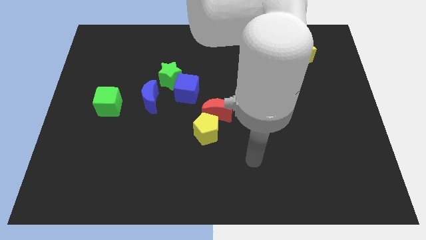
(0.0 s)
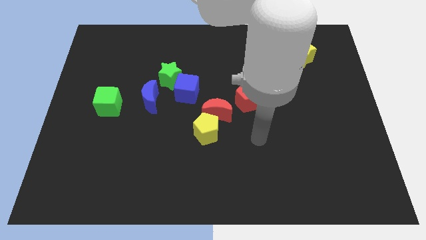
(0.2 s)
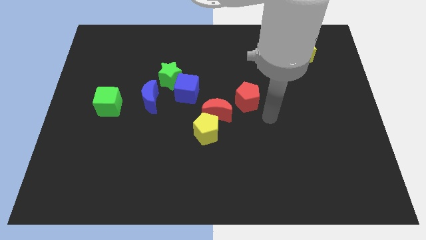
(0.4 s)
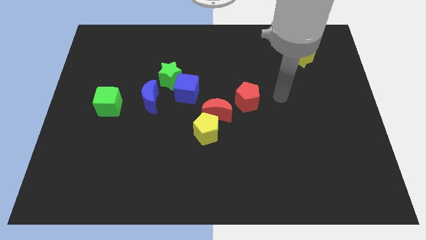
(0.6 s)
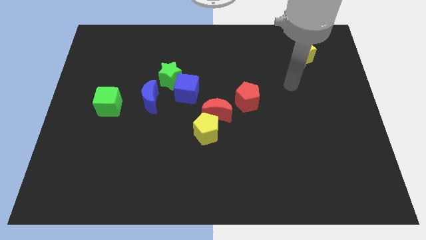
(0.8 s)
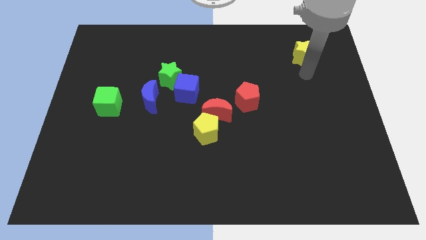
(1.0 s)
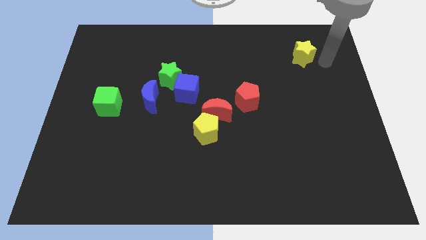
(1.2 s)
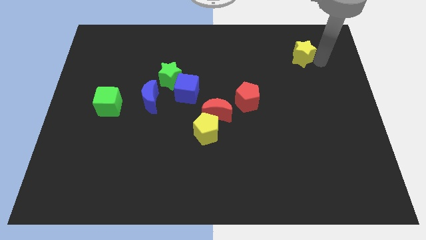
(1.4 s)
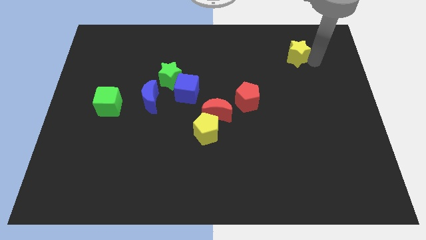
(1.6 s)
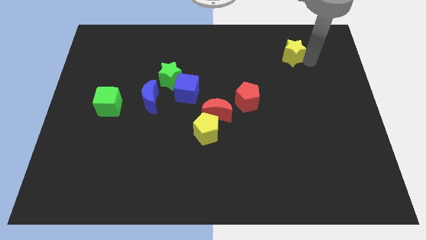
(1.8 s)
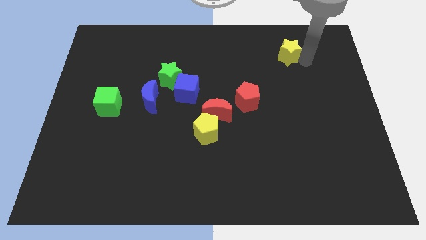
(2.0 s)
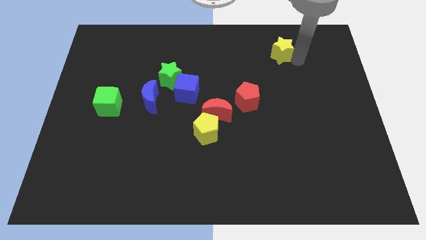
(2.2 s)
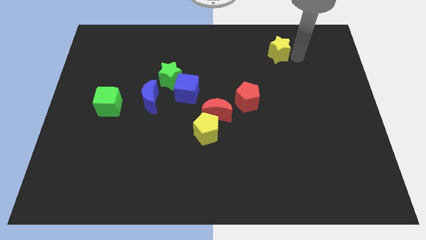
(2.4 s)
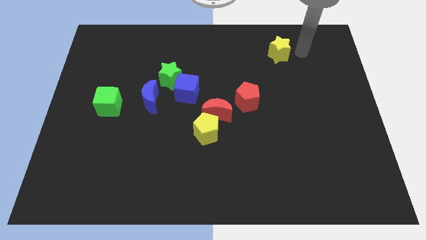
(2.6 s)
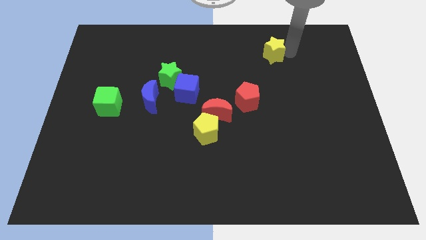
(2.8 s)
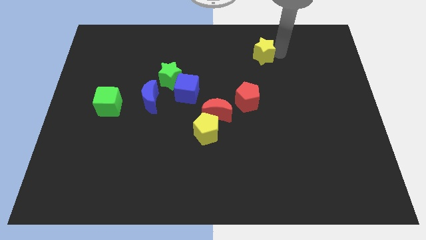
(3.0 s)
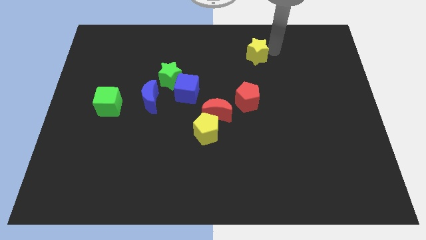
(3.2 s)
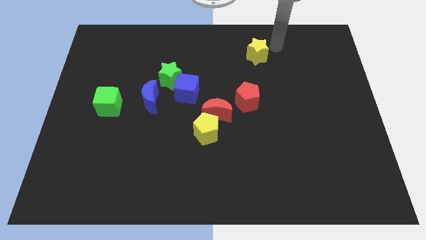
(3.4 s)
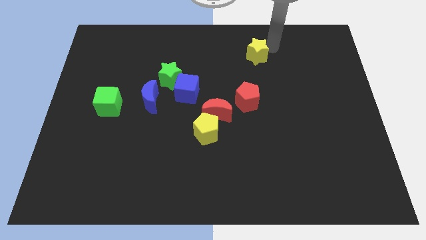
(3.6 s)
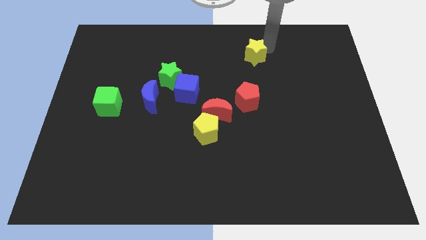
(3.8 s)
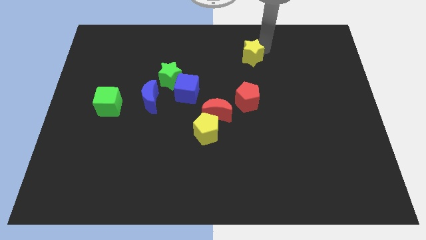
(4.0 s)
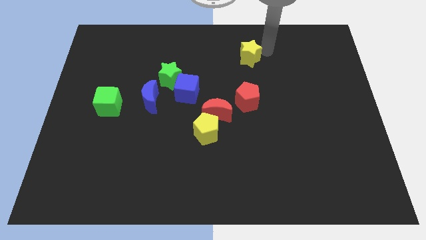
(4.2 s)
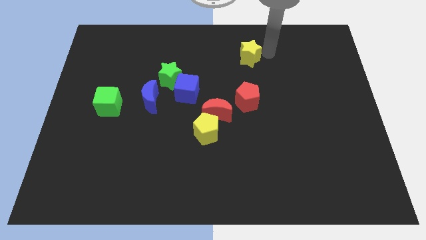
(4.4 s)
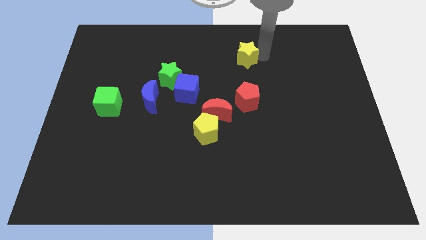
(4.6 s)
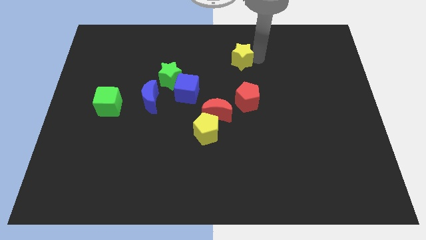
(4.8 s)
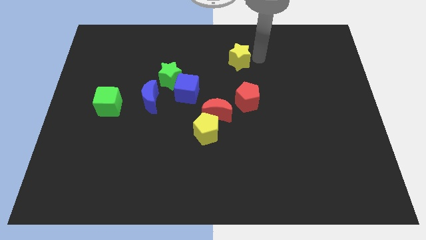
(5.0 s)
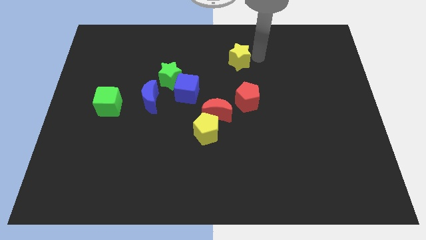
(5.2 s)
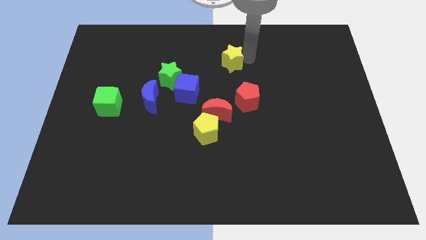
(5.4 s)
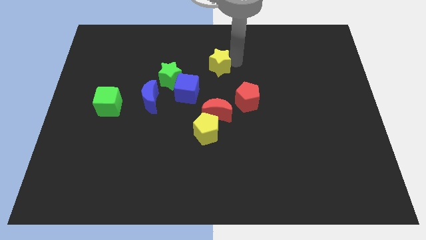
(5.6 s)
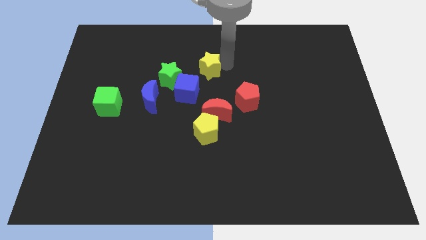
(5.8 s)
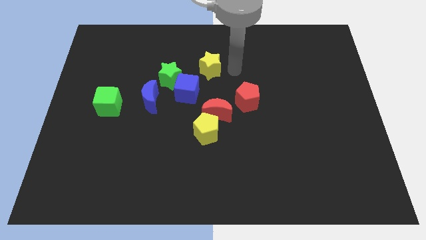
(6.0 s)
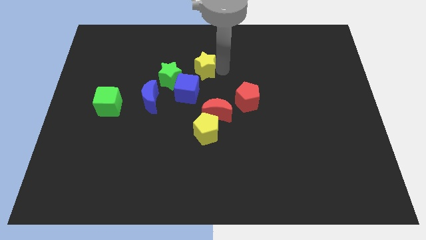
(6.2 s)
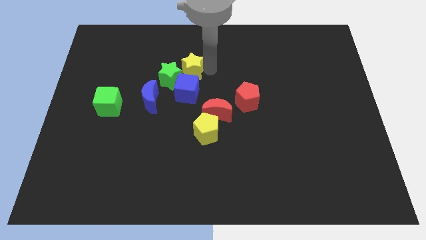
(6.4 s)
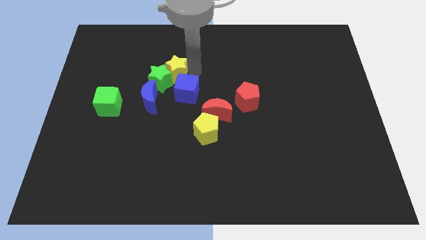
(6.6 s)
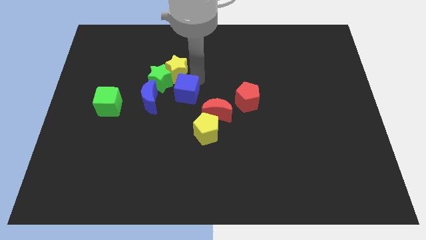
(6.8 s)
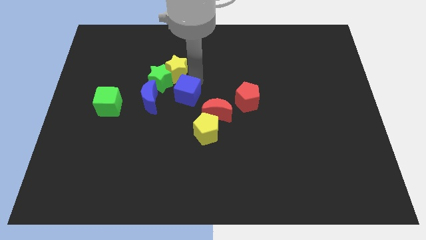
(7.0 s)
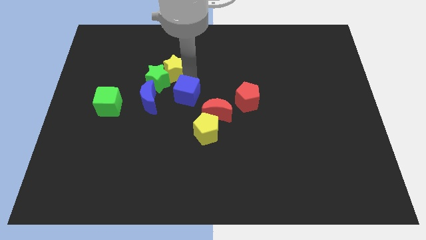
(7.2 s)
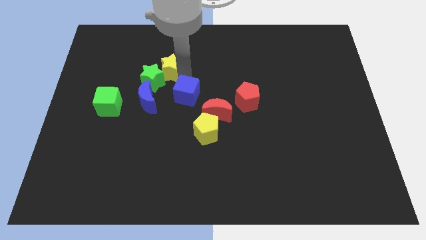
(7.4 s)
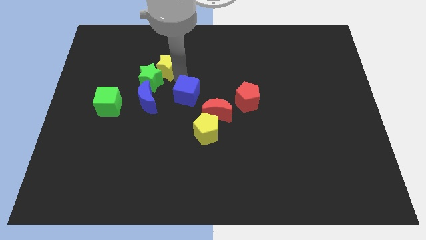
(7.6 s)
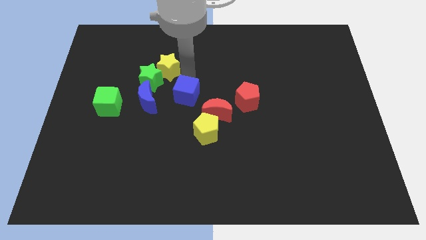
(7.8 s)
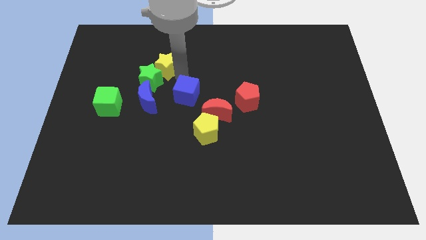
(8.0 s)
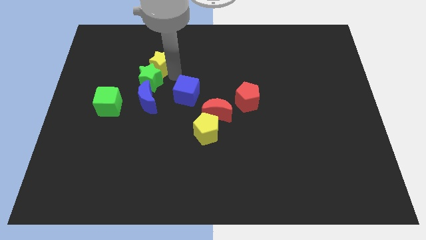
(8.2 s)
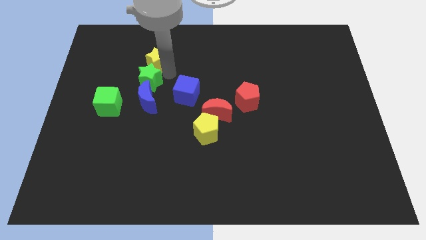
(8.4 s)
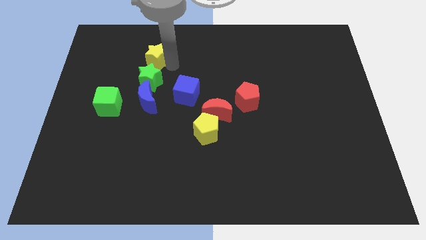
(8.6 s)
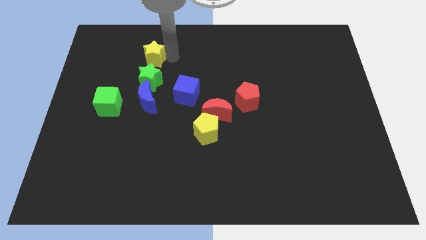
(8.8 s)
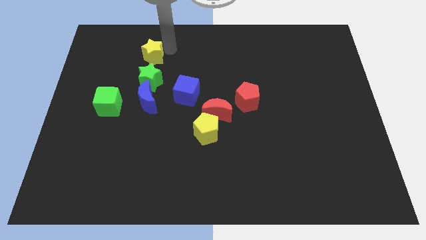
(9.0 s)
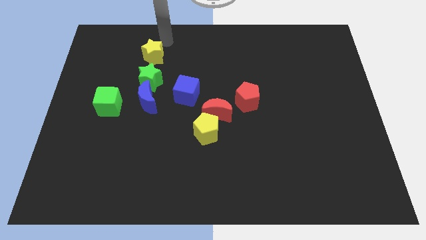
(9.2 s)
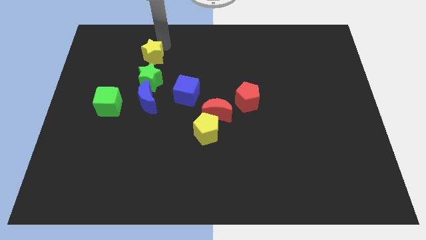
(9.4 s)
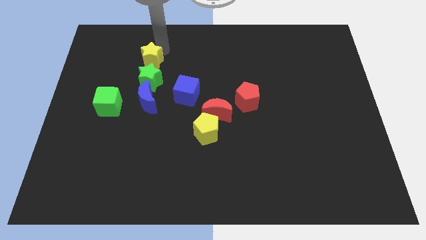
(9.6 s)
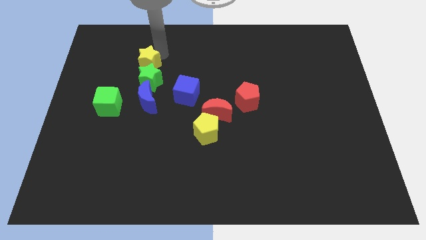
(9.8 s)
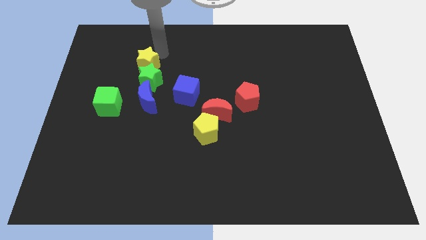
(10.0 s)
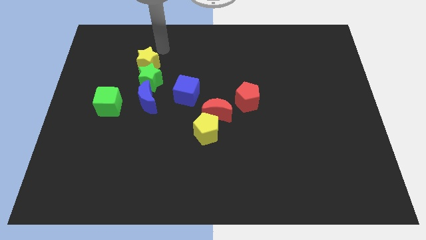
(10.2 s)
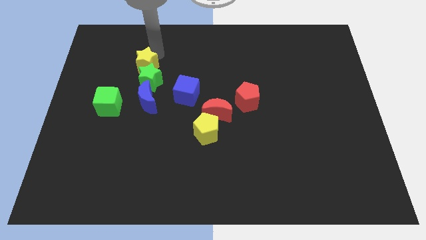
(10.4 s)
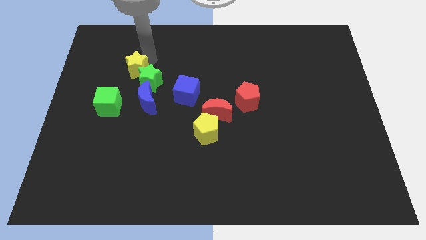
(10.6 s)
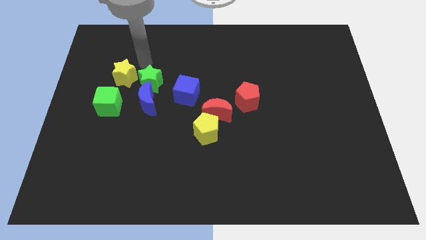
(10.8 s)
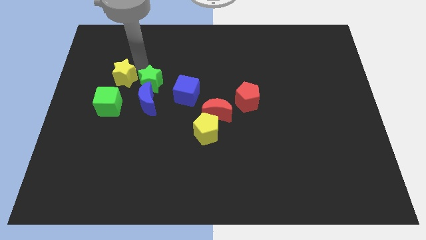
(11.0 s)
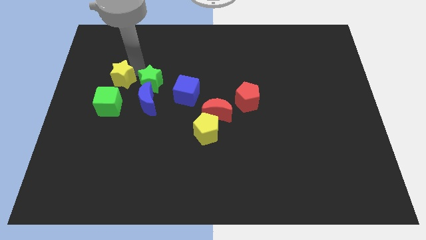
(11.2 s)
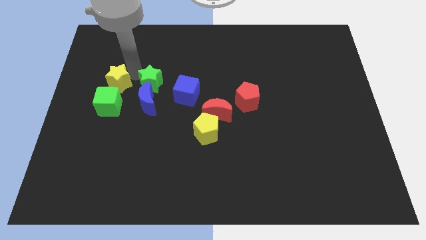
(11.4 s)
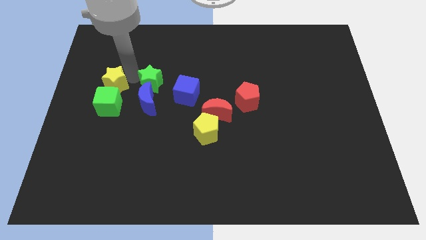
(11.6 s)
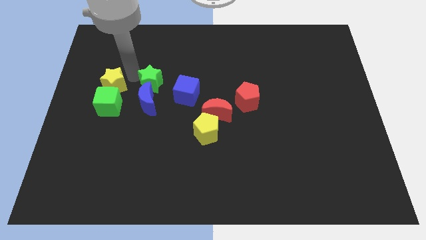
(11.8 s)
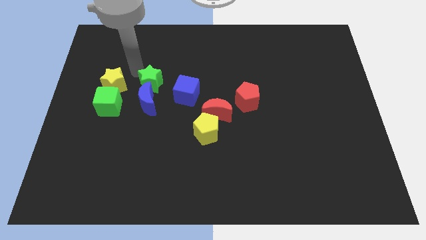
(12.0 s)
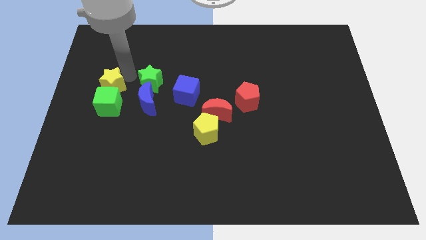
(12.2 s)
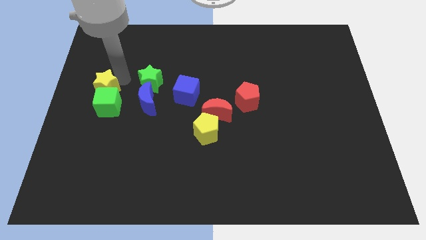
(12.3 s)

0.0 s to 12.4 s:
put the yellow star to the left of the blue moon

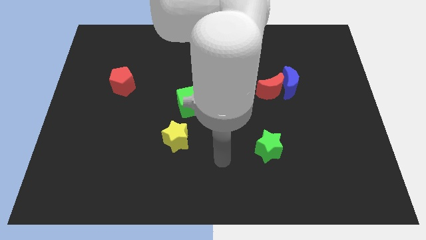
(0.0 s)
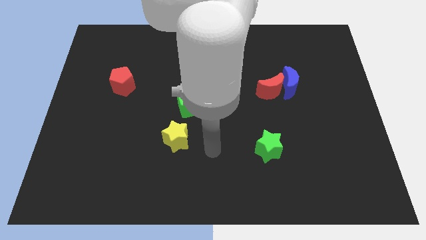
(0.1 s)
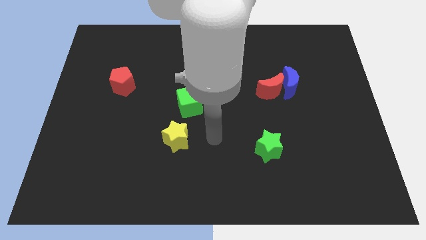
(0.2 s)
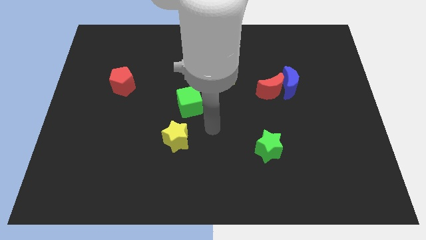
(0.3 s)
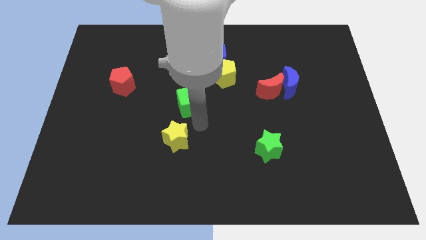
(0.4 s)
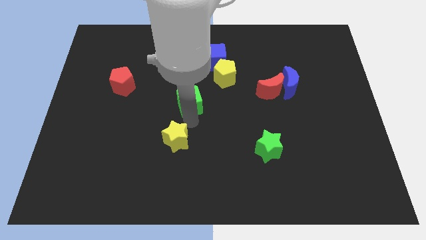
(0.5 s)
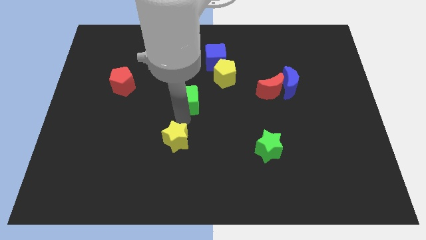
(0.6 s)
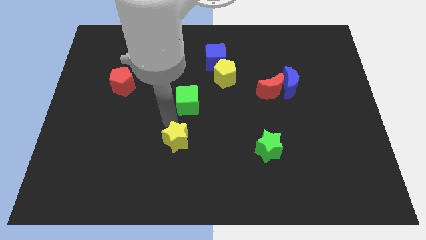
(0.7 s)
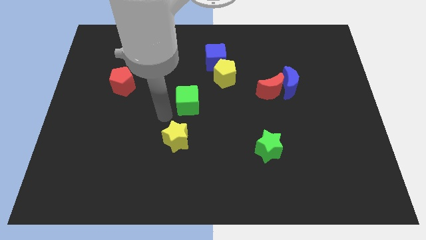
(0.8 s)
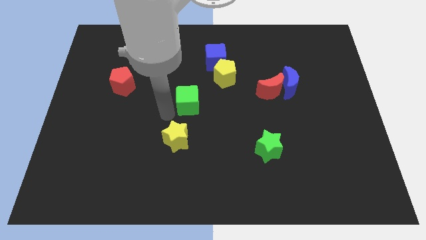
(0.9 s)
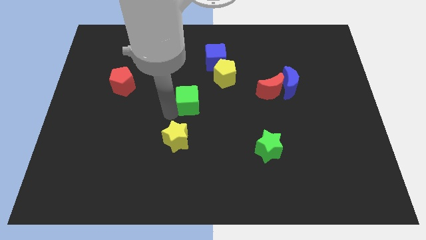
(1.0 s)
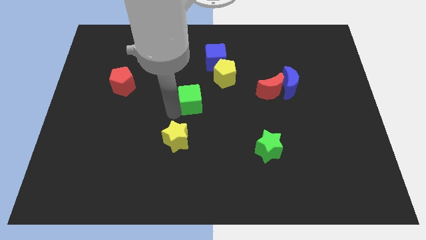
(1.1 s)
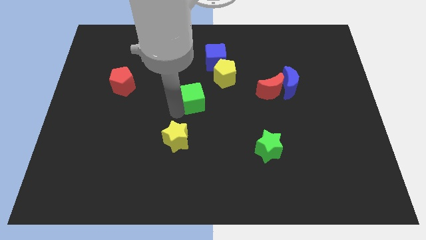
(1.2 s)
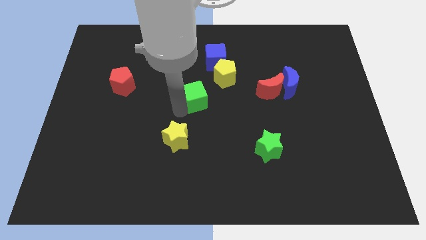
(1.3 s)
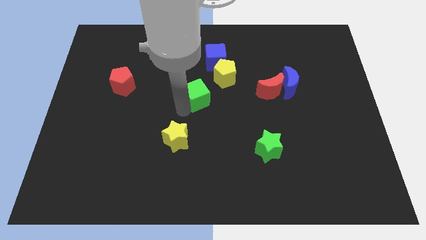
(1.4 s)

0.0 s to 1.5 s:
put the green cube to the bottom of the blue cube
